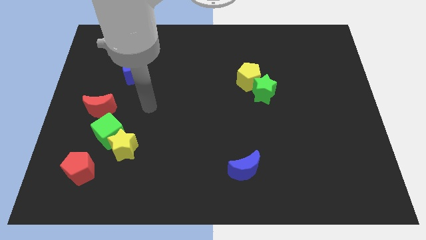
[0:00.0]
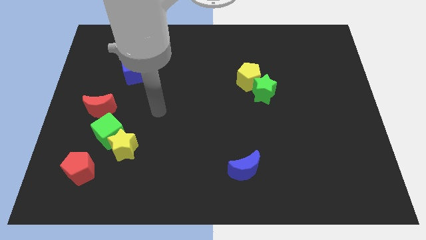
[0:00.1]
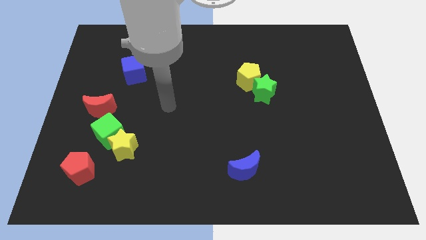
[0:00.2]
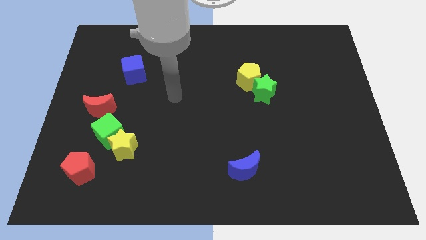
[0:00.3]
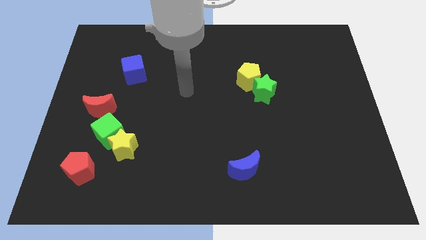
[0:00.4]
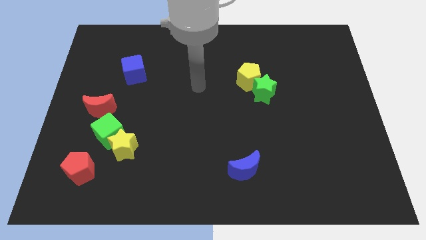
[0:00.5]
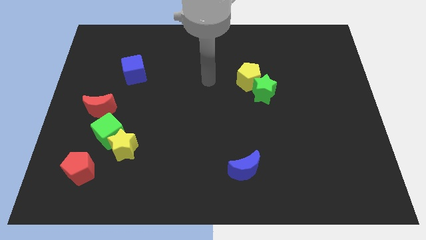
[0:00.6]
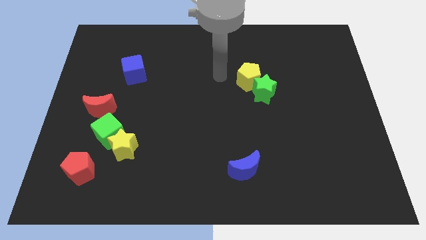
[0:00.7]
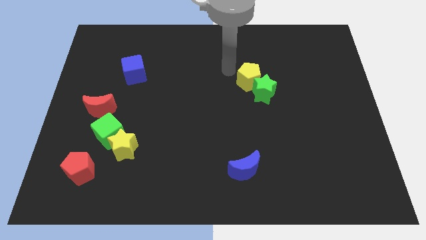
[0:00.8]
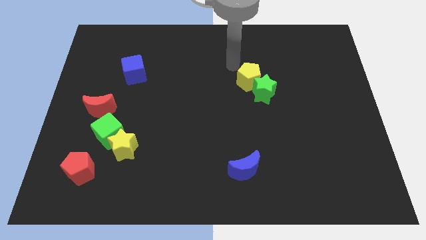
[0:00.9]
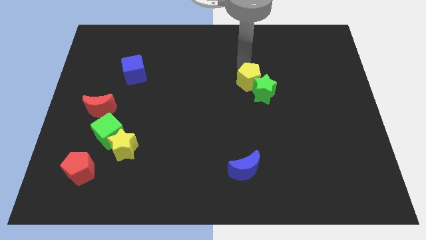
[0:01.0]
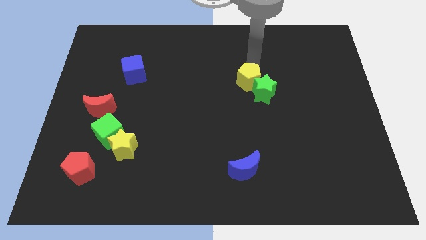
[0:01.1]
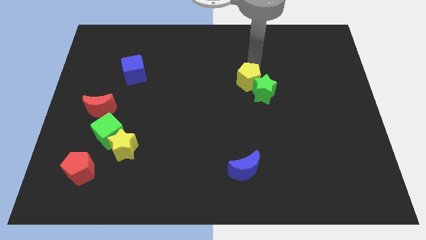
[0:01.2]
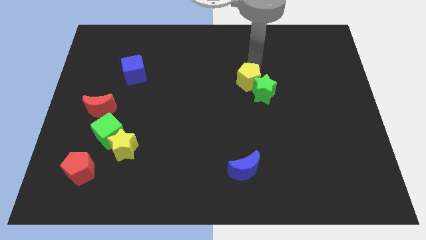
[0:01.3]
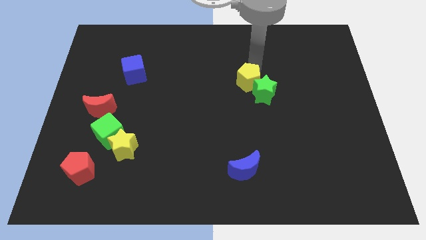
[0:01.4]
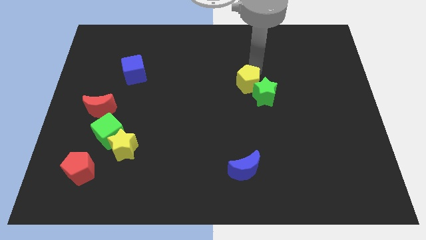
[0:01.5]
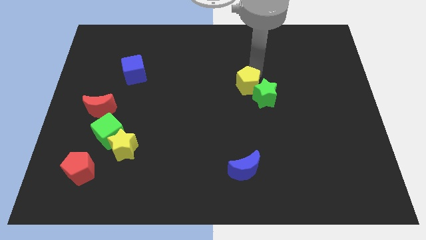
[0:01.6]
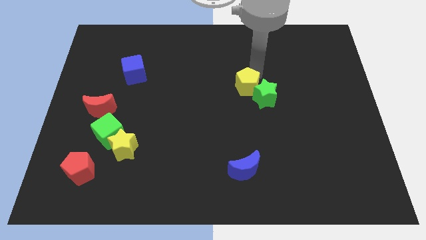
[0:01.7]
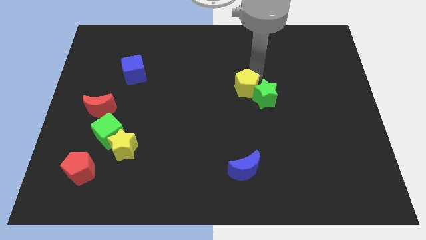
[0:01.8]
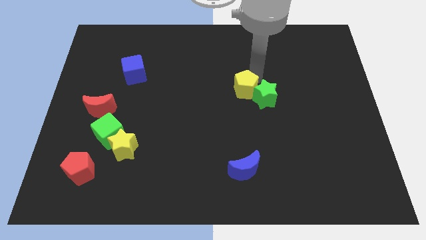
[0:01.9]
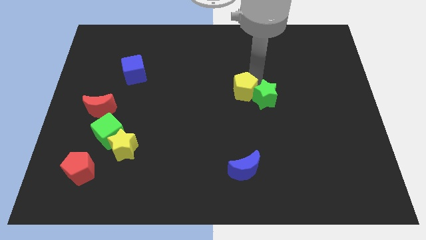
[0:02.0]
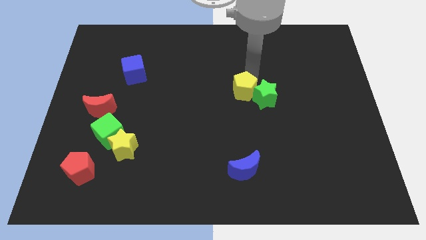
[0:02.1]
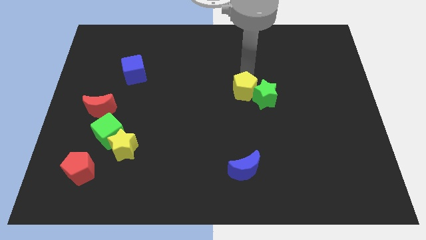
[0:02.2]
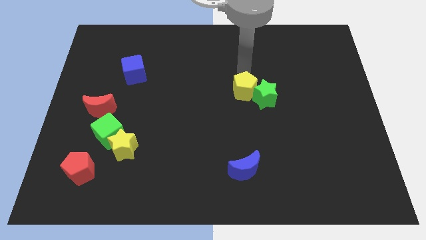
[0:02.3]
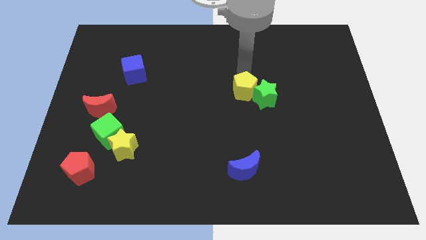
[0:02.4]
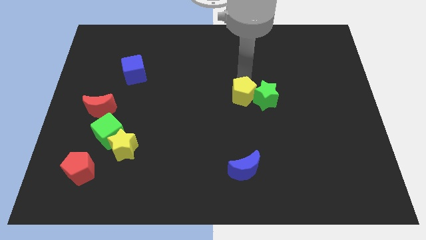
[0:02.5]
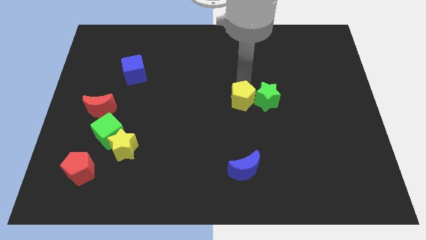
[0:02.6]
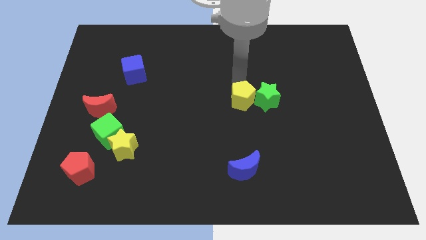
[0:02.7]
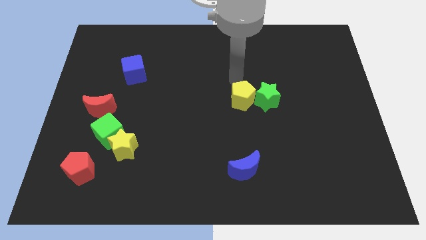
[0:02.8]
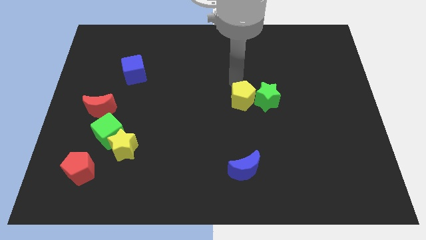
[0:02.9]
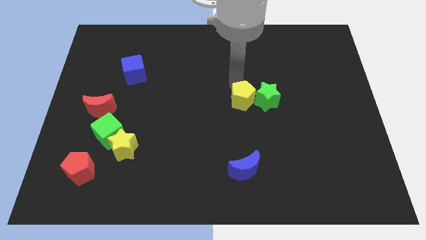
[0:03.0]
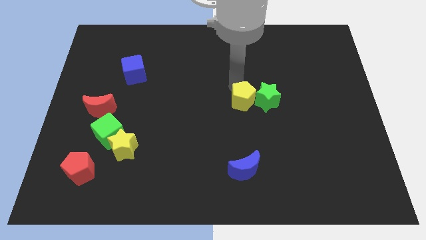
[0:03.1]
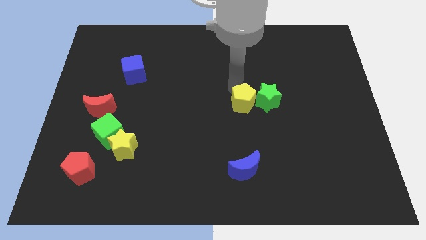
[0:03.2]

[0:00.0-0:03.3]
push the yellow pentagon a little downwards

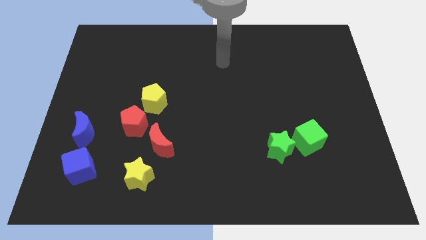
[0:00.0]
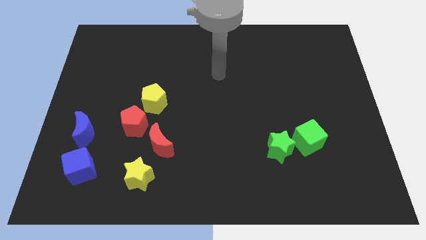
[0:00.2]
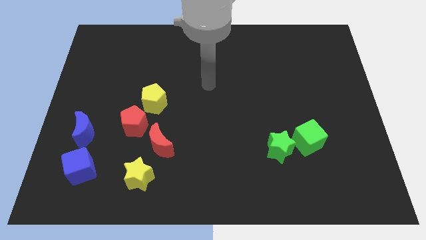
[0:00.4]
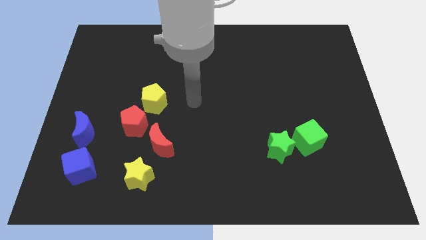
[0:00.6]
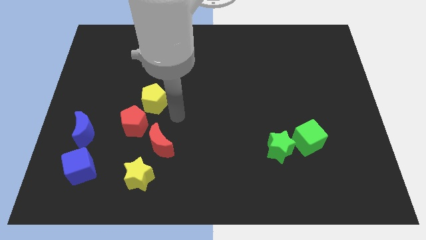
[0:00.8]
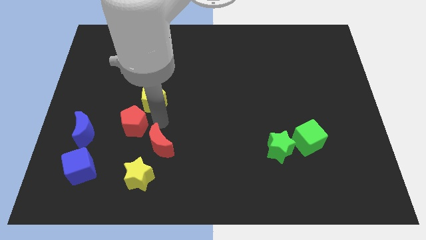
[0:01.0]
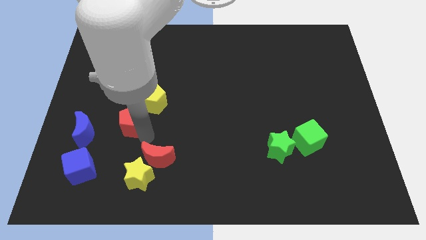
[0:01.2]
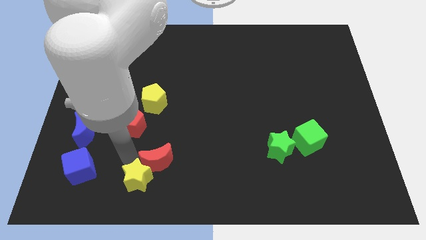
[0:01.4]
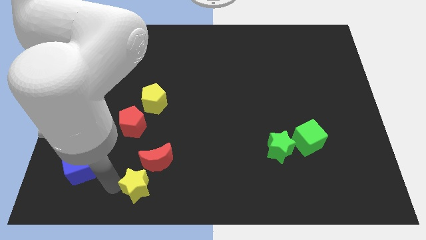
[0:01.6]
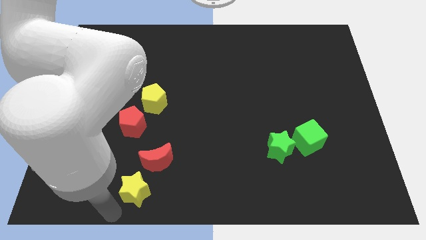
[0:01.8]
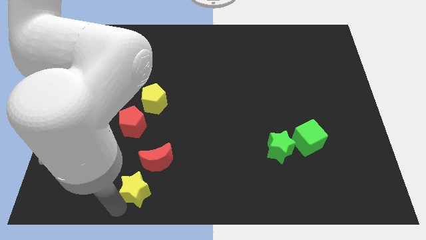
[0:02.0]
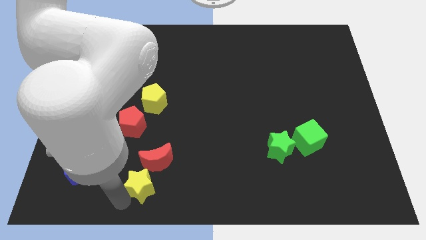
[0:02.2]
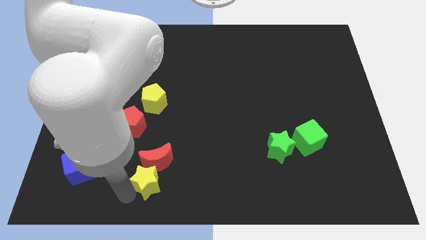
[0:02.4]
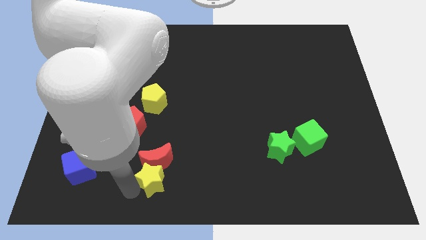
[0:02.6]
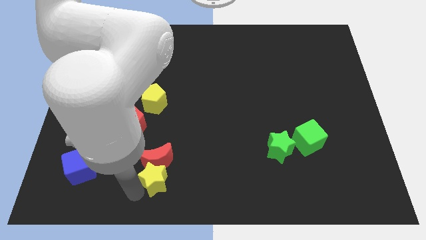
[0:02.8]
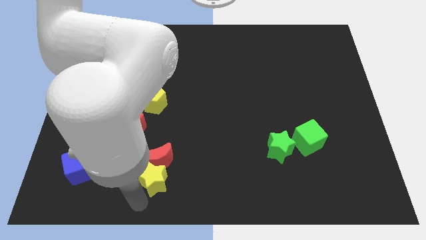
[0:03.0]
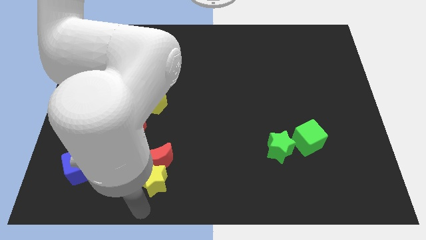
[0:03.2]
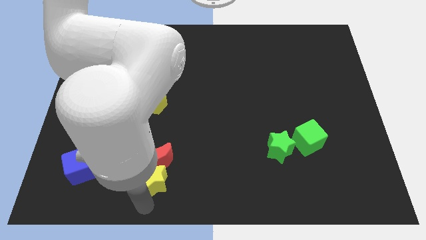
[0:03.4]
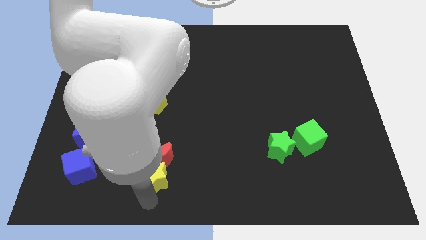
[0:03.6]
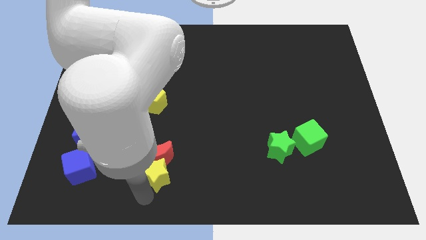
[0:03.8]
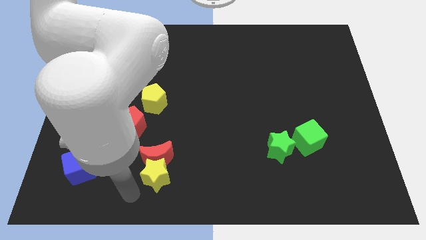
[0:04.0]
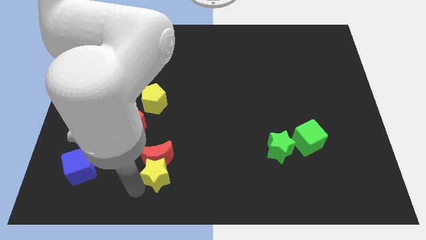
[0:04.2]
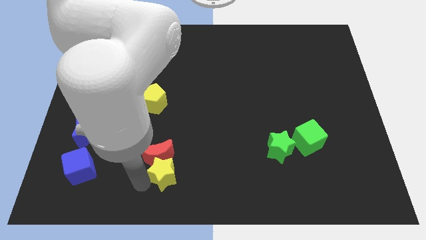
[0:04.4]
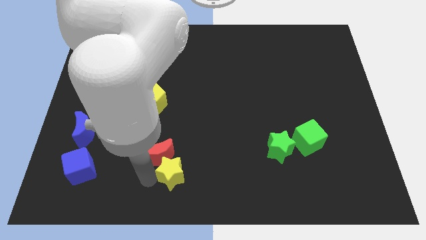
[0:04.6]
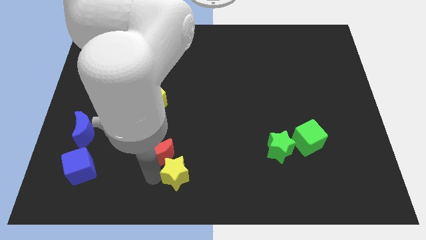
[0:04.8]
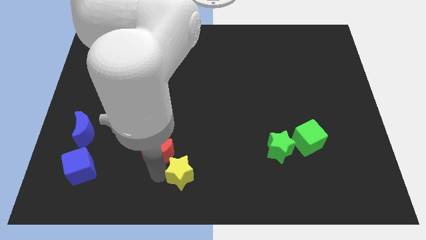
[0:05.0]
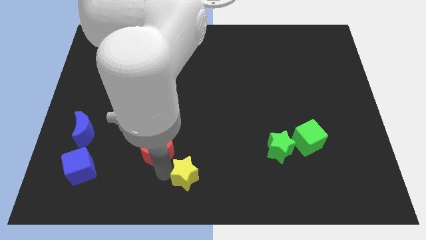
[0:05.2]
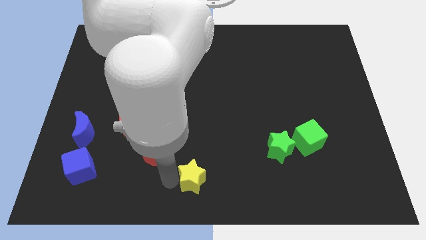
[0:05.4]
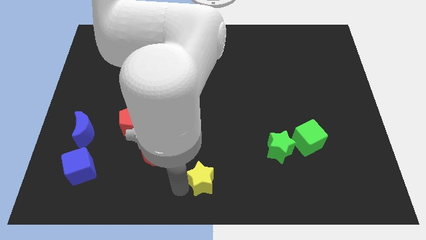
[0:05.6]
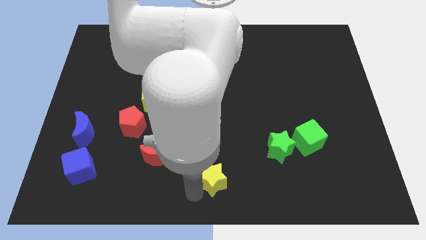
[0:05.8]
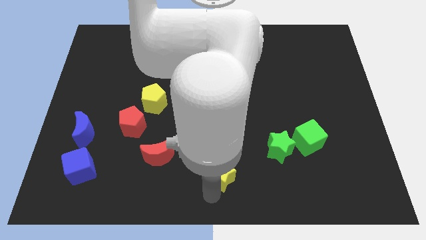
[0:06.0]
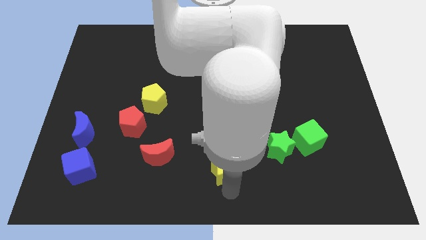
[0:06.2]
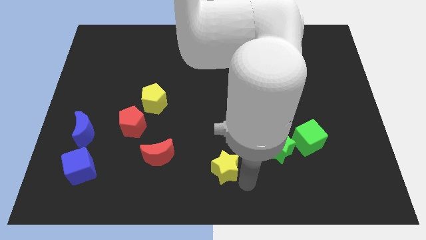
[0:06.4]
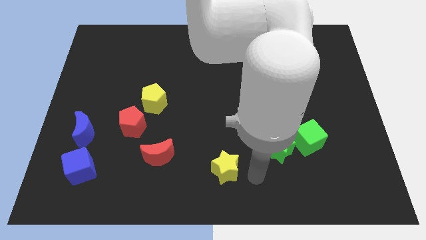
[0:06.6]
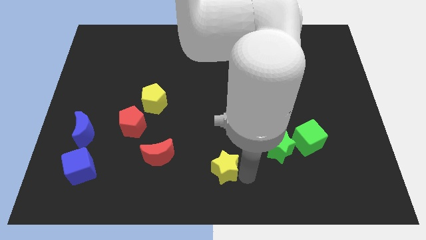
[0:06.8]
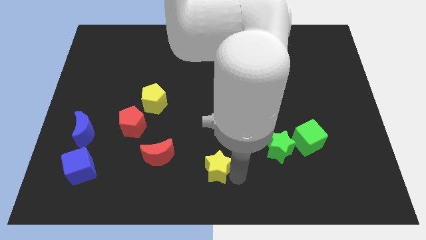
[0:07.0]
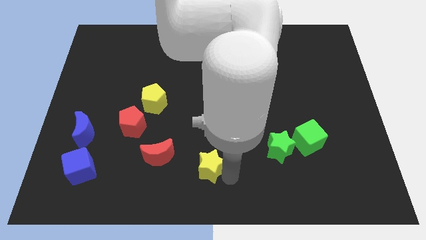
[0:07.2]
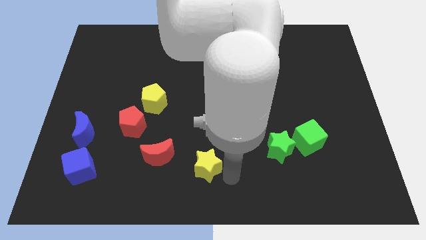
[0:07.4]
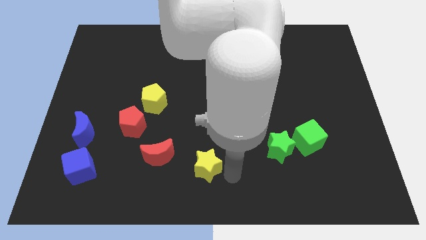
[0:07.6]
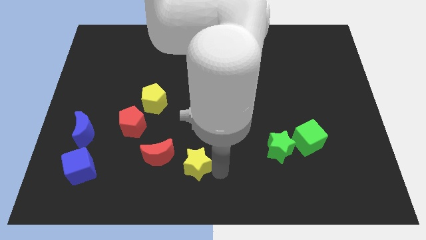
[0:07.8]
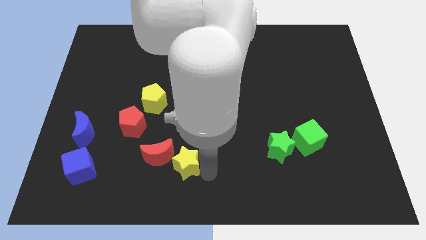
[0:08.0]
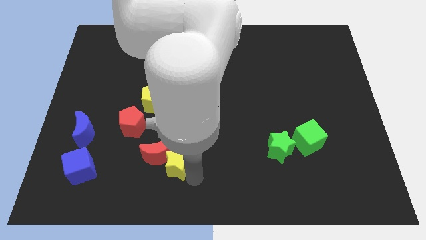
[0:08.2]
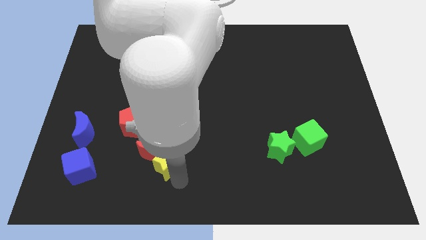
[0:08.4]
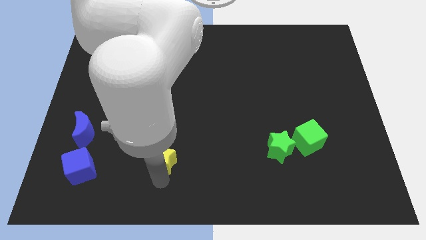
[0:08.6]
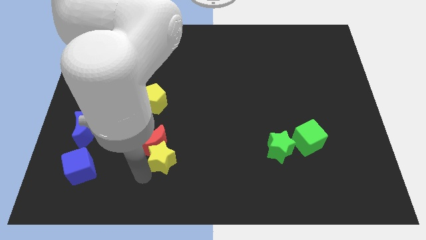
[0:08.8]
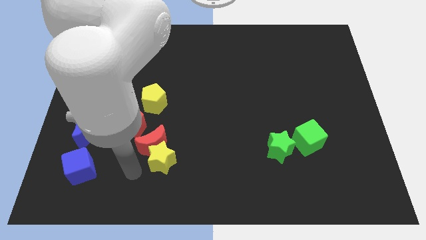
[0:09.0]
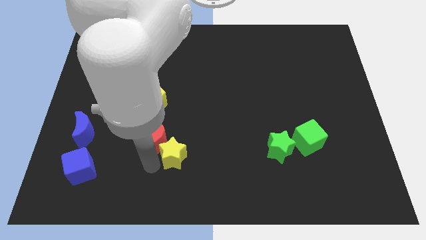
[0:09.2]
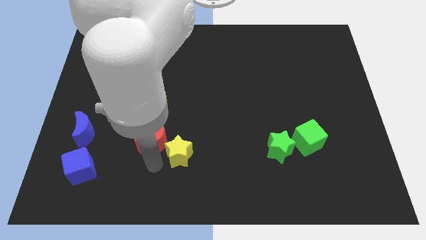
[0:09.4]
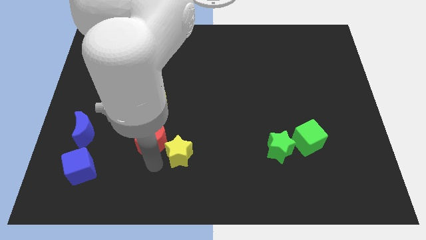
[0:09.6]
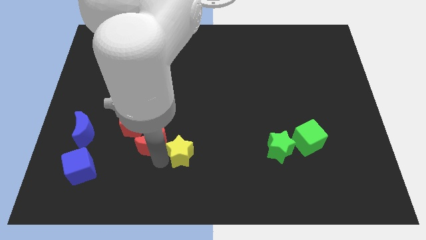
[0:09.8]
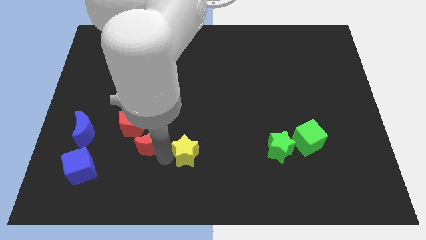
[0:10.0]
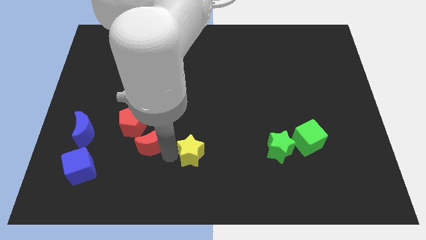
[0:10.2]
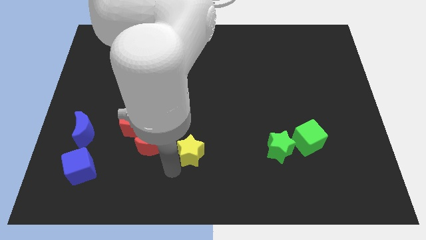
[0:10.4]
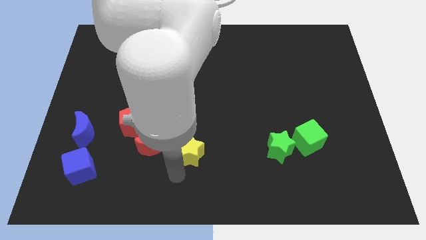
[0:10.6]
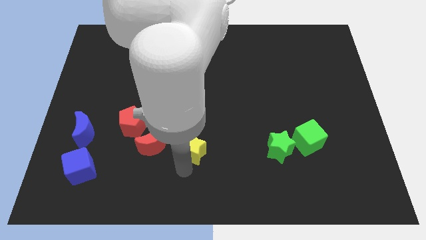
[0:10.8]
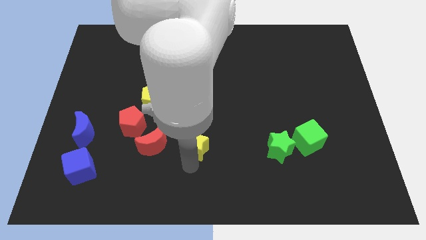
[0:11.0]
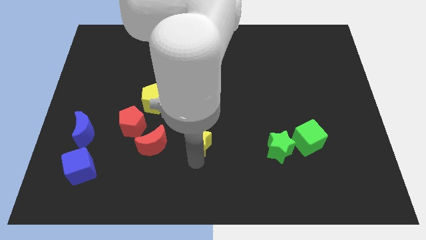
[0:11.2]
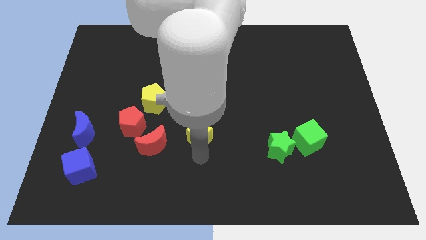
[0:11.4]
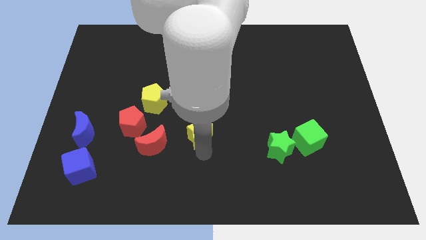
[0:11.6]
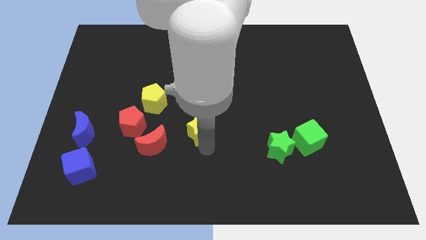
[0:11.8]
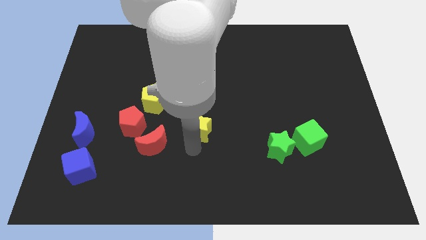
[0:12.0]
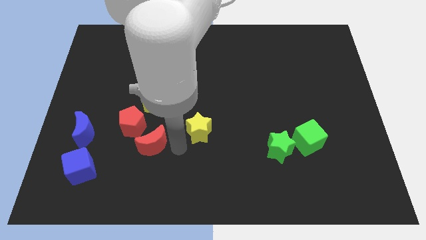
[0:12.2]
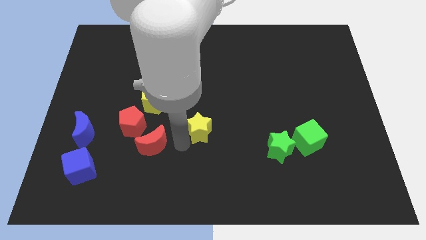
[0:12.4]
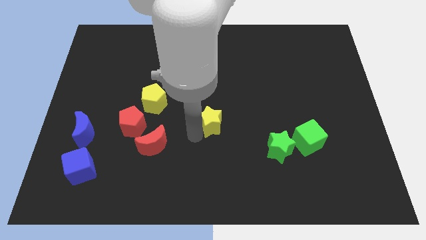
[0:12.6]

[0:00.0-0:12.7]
move the yellow star up and right
